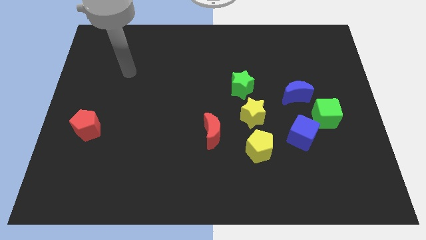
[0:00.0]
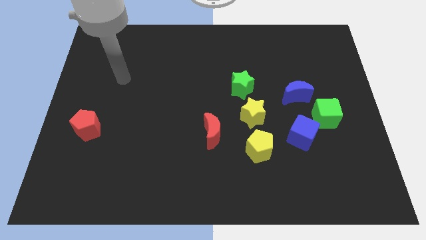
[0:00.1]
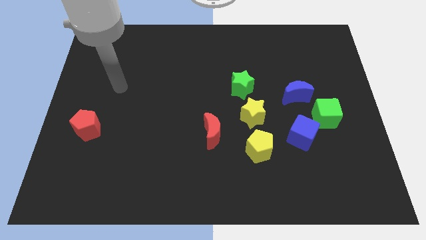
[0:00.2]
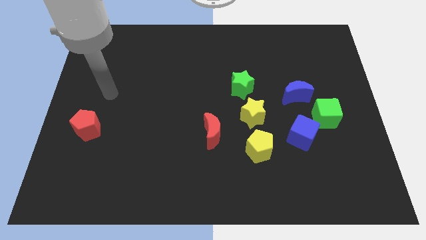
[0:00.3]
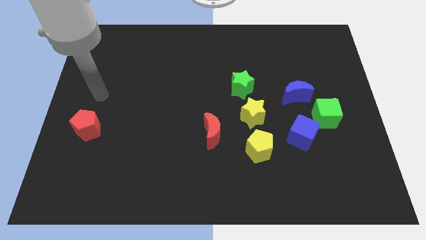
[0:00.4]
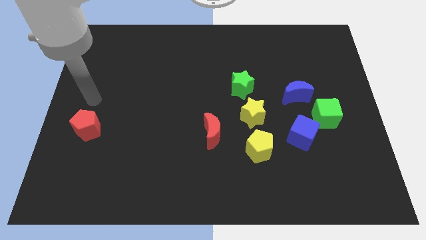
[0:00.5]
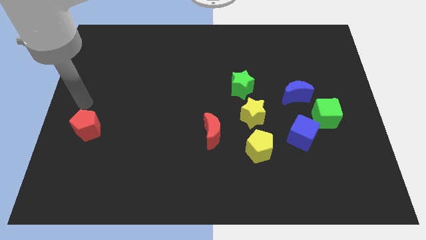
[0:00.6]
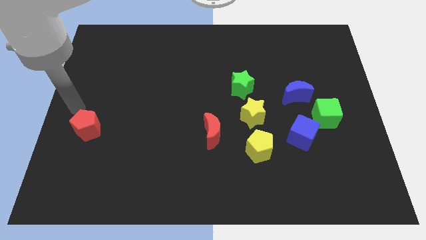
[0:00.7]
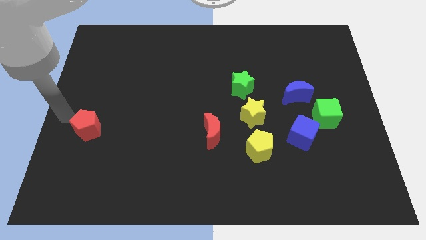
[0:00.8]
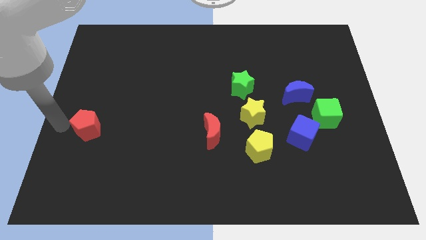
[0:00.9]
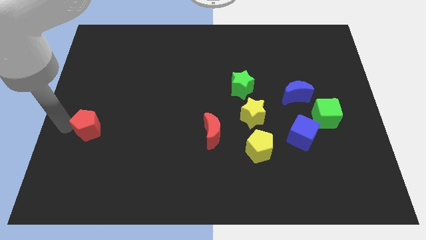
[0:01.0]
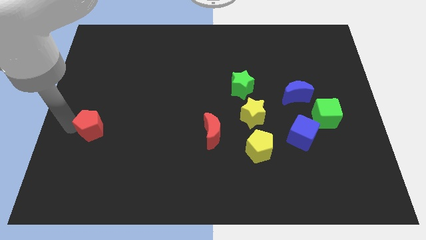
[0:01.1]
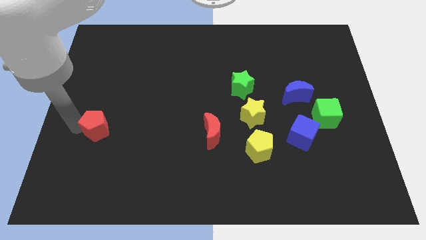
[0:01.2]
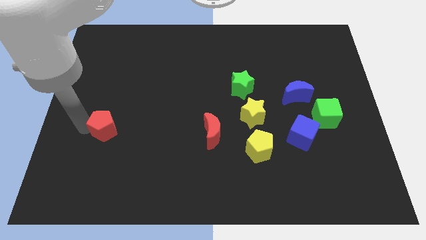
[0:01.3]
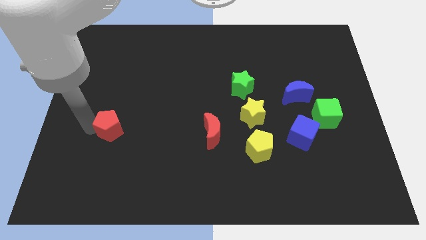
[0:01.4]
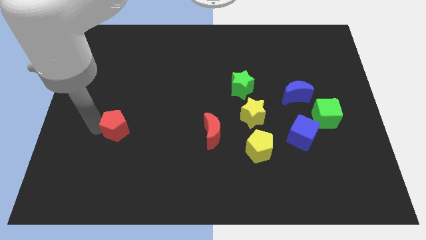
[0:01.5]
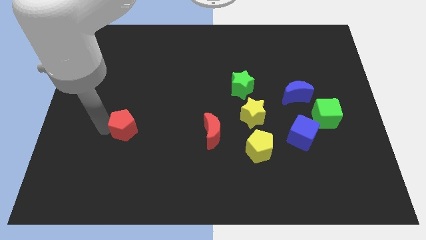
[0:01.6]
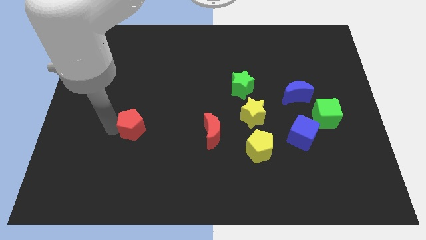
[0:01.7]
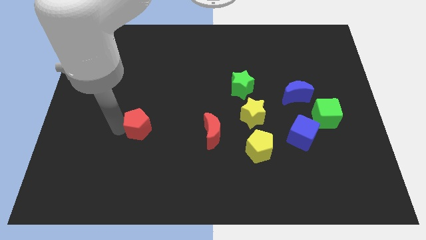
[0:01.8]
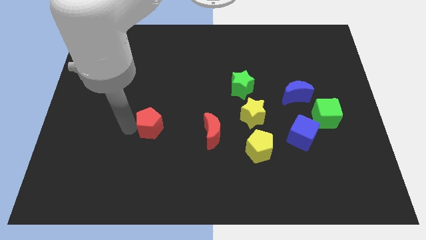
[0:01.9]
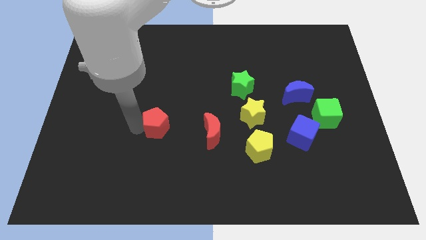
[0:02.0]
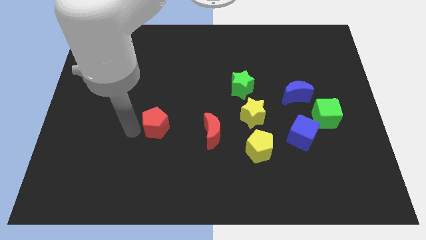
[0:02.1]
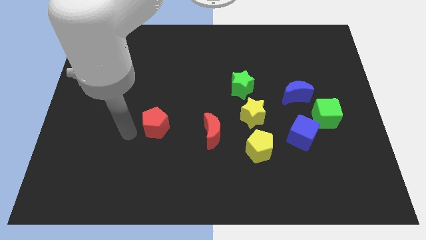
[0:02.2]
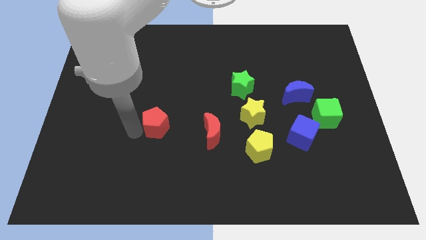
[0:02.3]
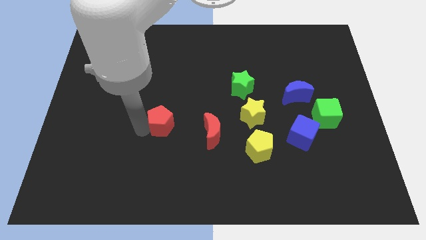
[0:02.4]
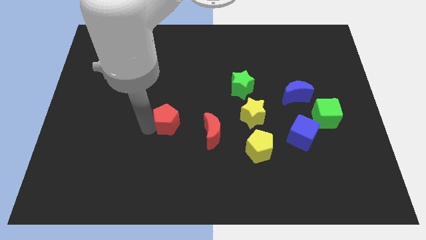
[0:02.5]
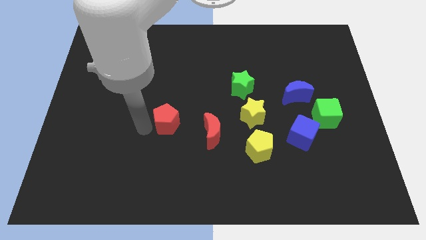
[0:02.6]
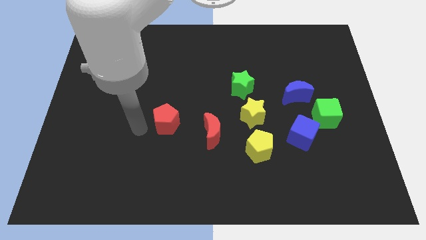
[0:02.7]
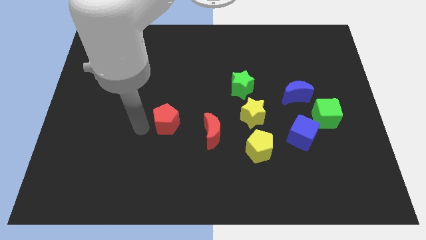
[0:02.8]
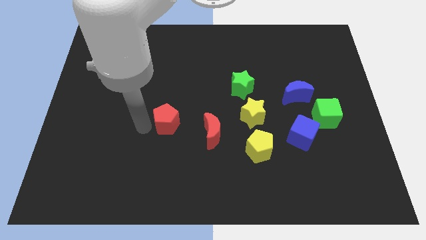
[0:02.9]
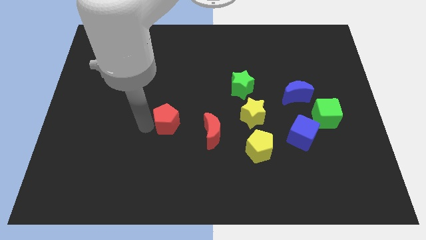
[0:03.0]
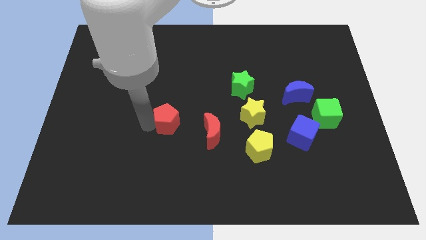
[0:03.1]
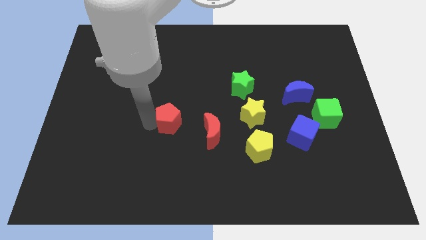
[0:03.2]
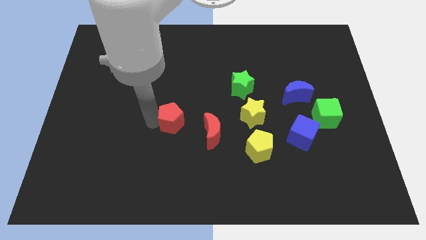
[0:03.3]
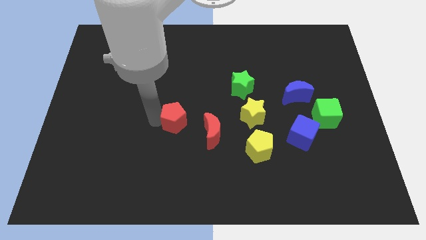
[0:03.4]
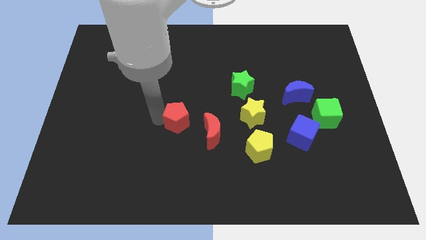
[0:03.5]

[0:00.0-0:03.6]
move the red pentagon to the right

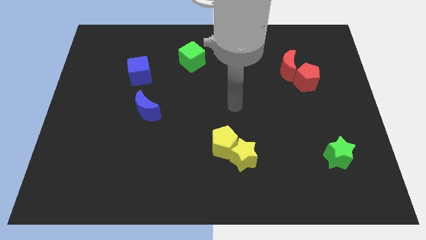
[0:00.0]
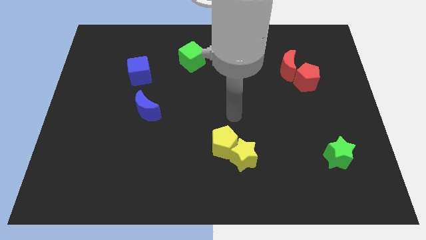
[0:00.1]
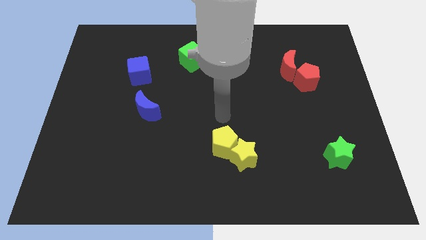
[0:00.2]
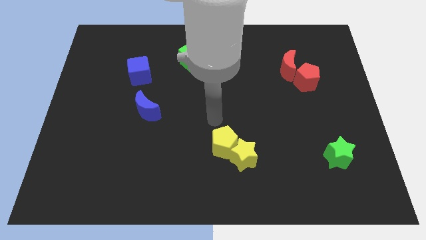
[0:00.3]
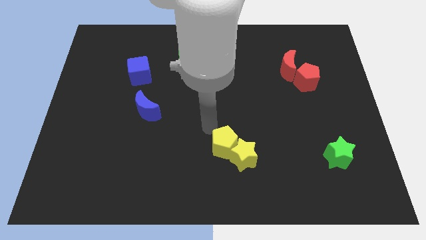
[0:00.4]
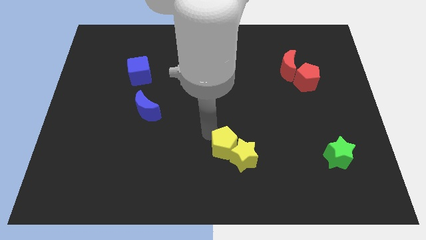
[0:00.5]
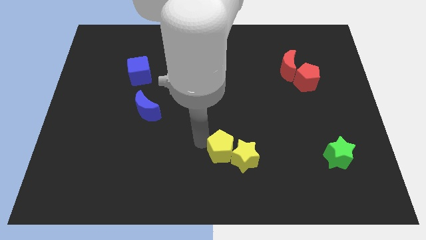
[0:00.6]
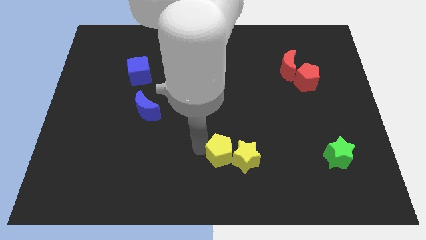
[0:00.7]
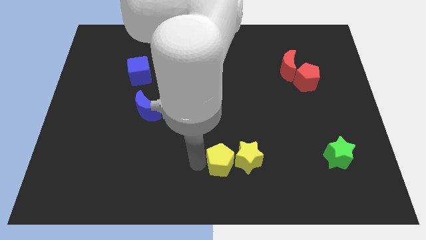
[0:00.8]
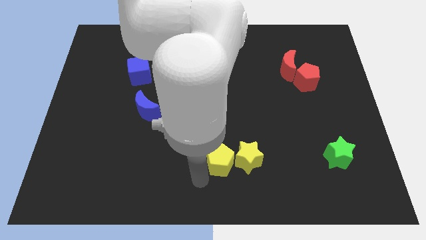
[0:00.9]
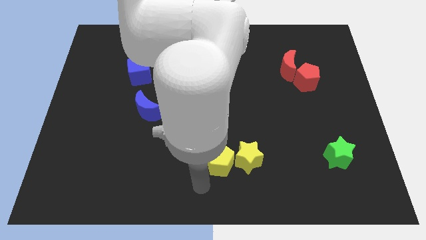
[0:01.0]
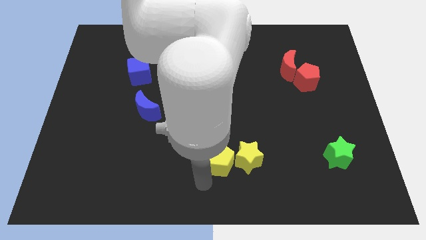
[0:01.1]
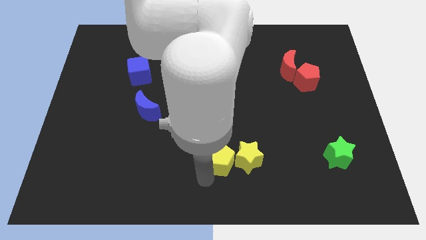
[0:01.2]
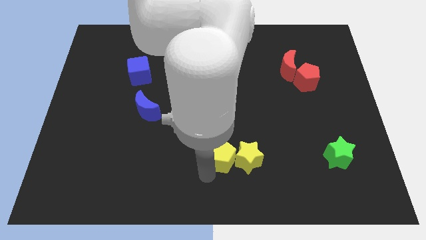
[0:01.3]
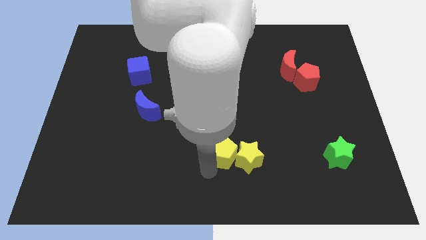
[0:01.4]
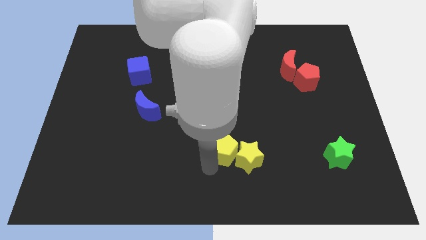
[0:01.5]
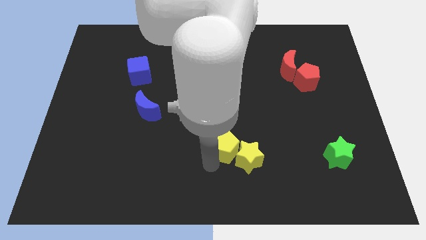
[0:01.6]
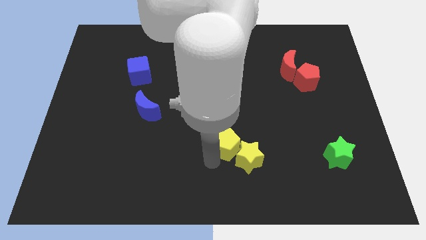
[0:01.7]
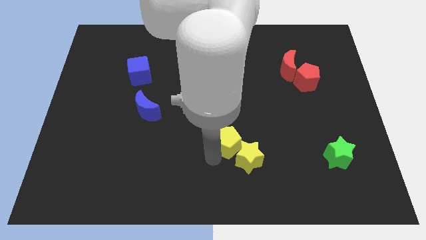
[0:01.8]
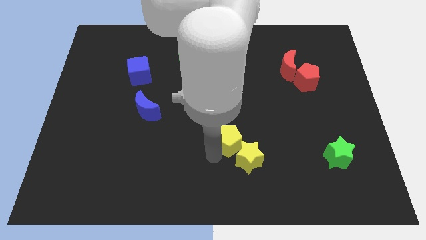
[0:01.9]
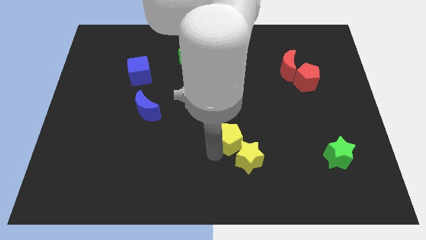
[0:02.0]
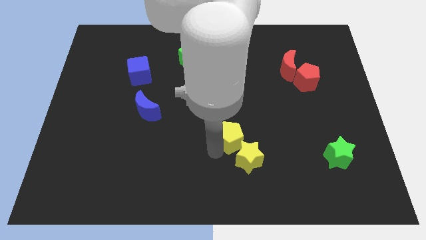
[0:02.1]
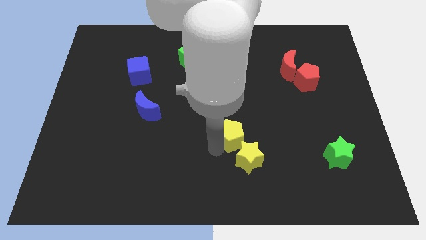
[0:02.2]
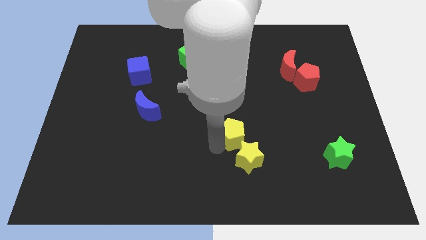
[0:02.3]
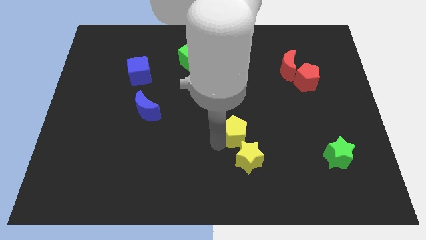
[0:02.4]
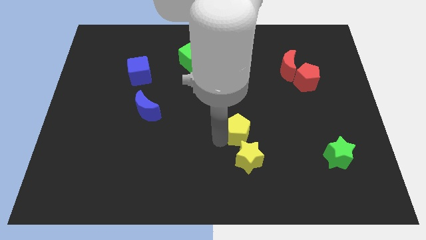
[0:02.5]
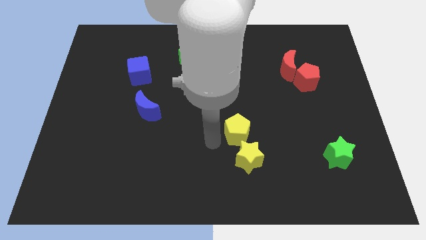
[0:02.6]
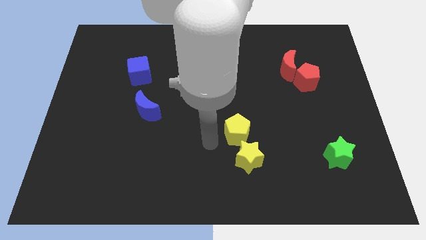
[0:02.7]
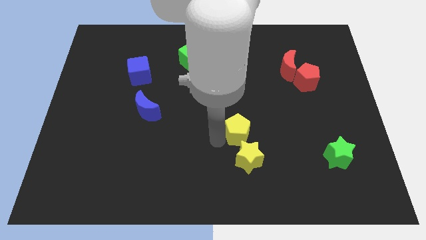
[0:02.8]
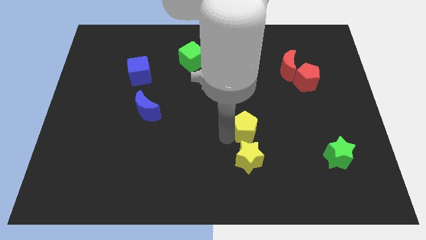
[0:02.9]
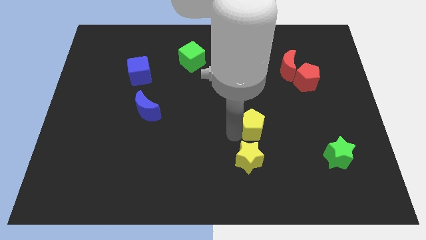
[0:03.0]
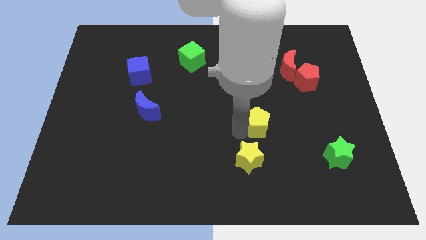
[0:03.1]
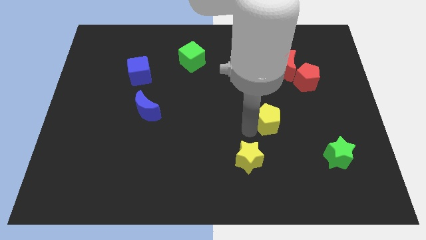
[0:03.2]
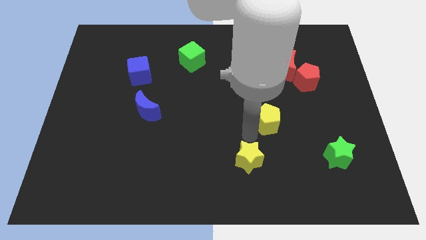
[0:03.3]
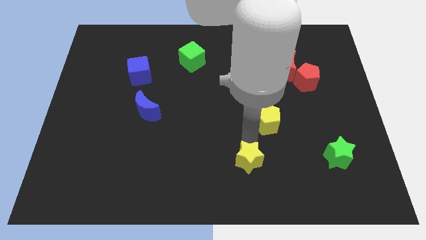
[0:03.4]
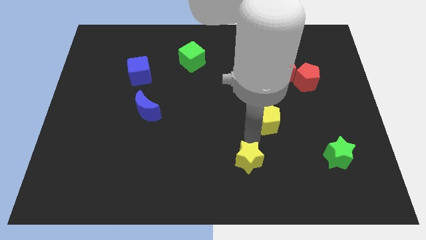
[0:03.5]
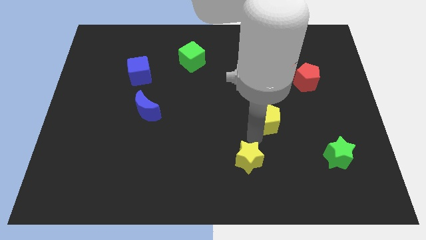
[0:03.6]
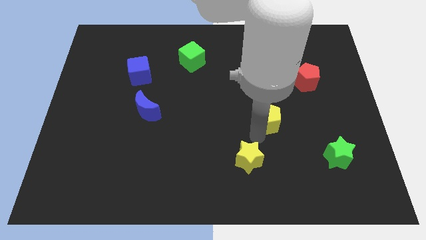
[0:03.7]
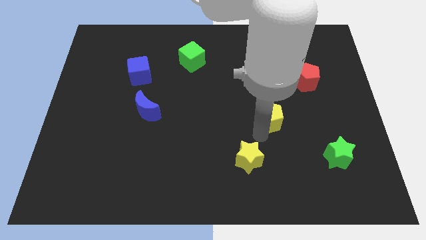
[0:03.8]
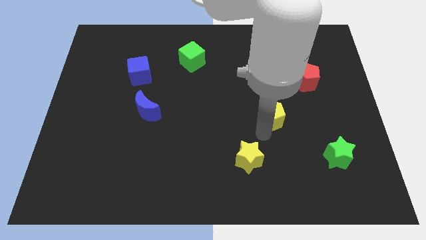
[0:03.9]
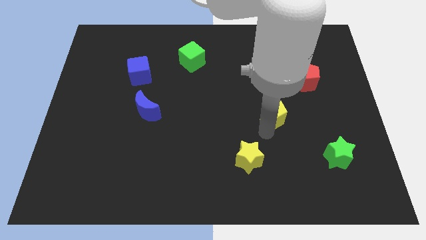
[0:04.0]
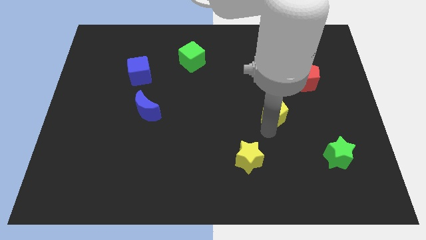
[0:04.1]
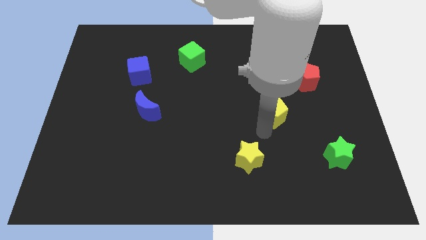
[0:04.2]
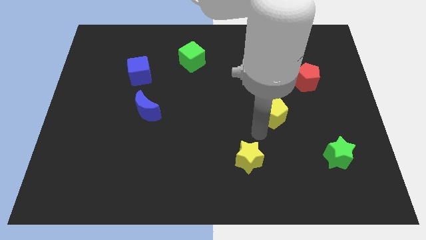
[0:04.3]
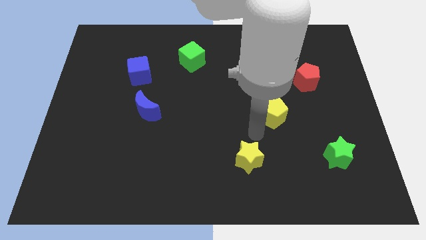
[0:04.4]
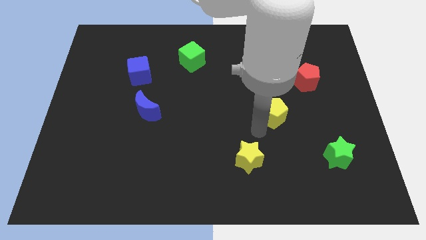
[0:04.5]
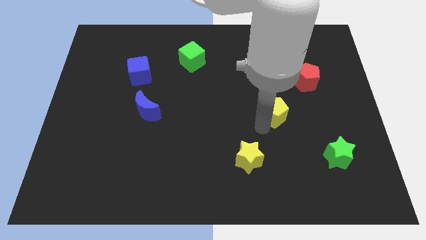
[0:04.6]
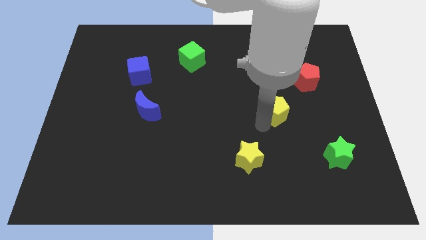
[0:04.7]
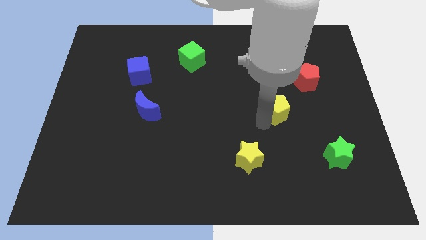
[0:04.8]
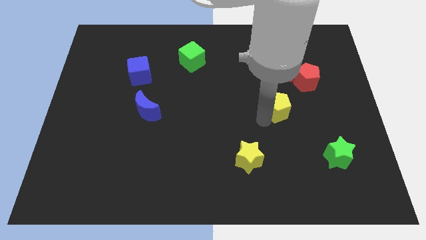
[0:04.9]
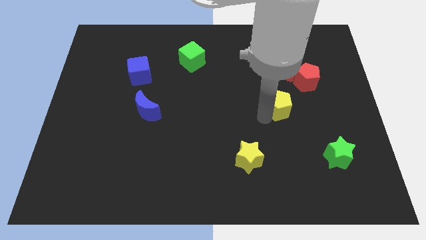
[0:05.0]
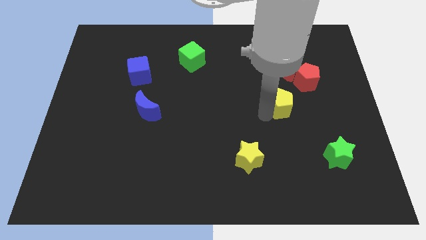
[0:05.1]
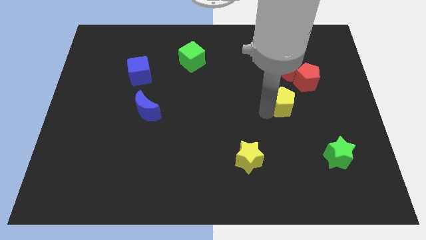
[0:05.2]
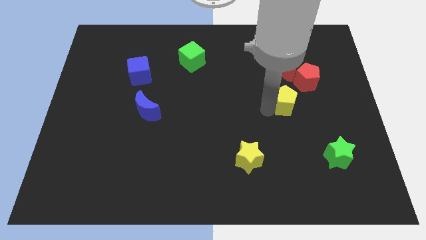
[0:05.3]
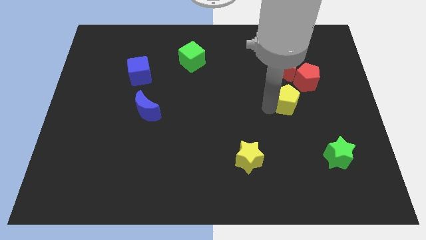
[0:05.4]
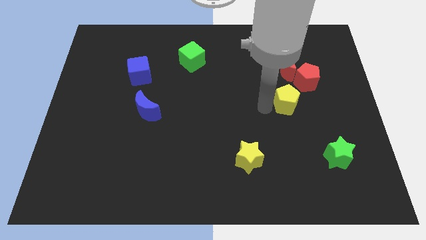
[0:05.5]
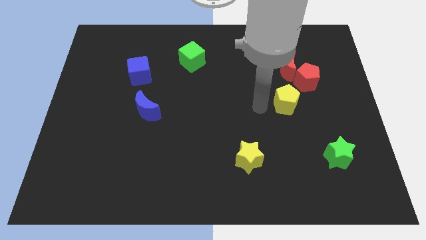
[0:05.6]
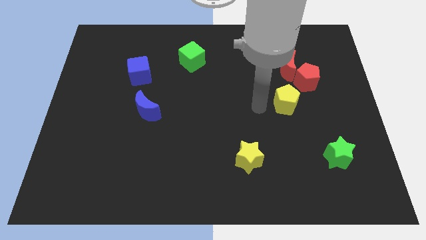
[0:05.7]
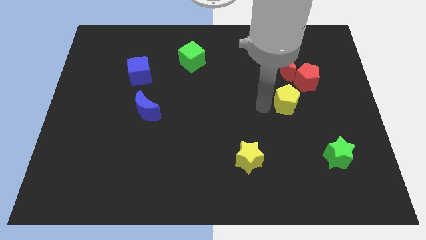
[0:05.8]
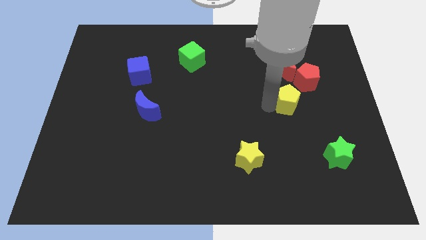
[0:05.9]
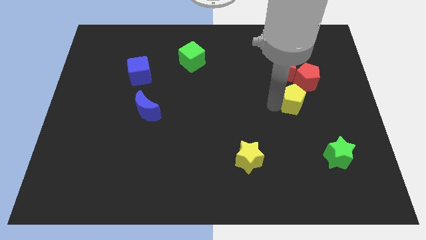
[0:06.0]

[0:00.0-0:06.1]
slide the yellow pentagon up and then to the right
